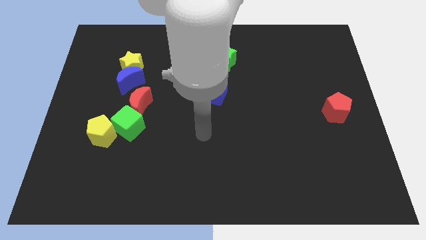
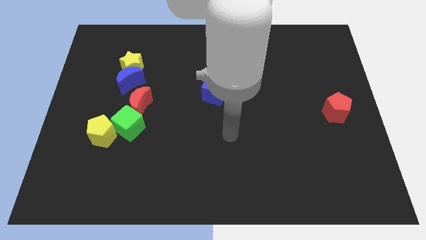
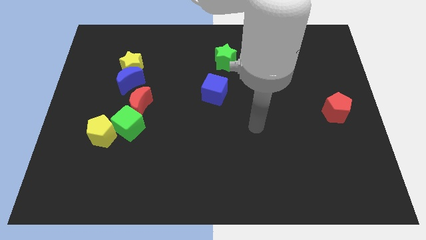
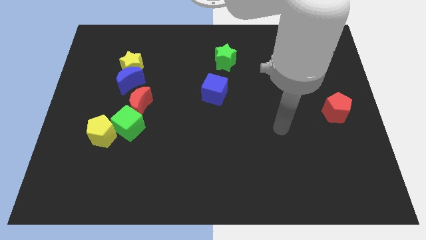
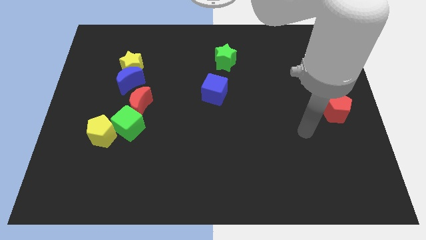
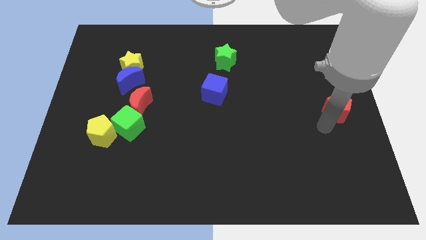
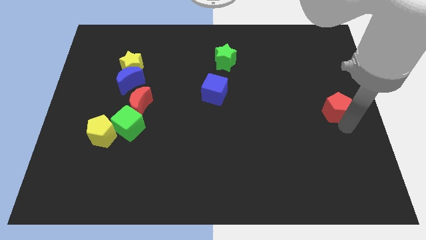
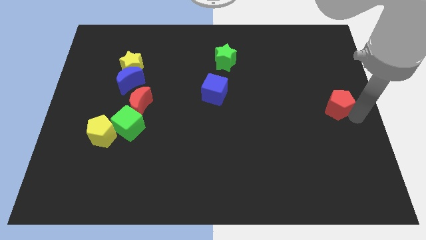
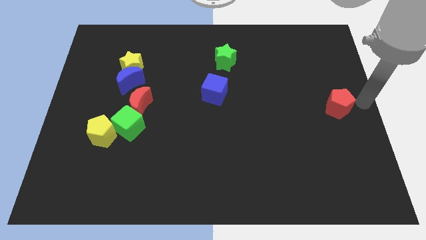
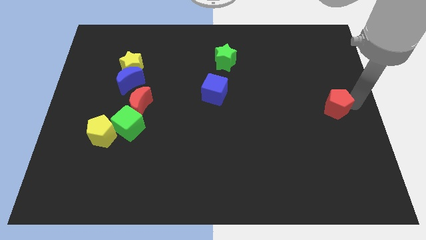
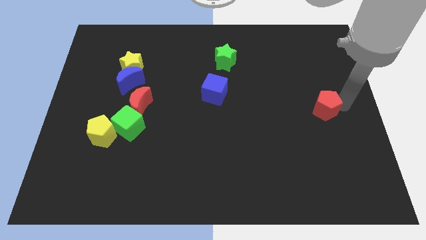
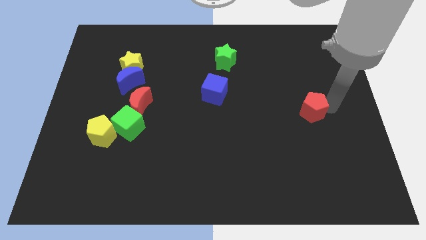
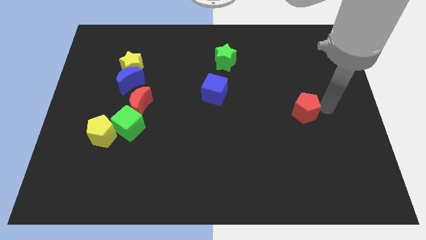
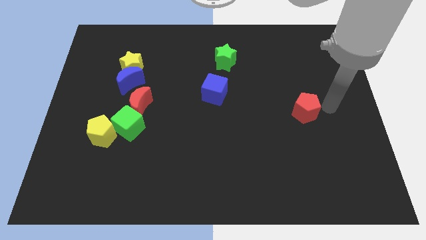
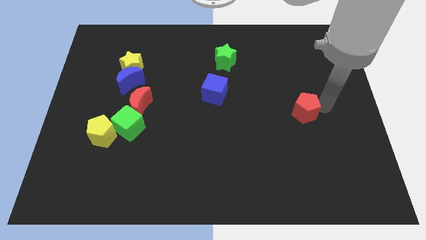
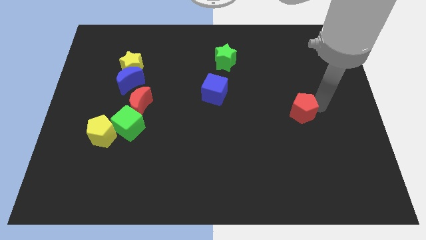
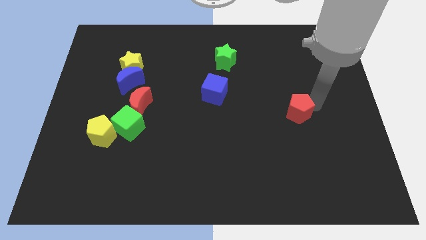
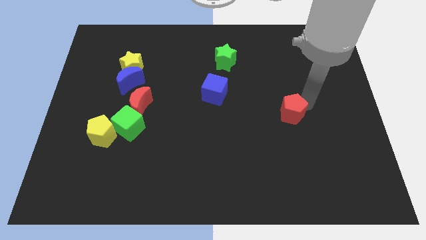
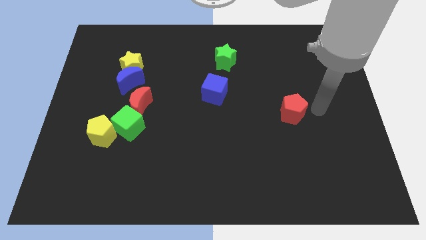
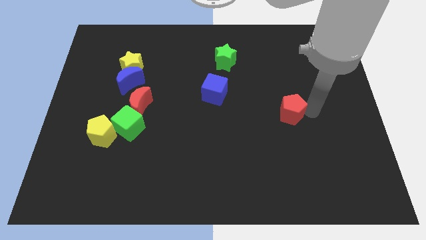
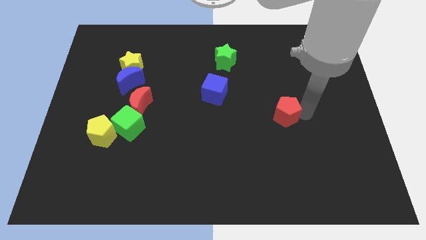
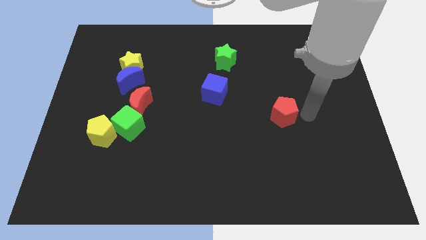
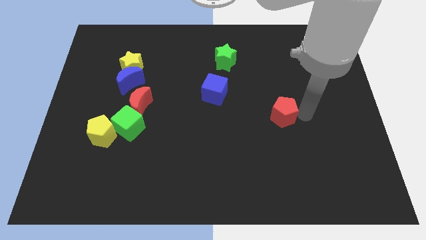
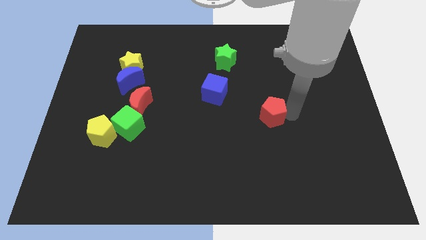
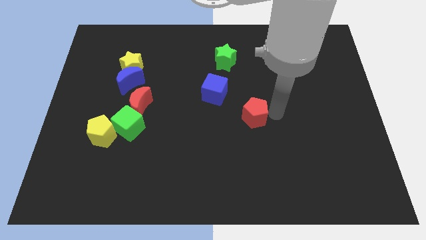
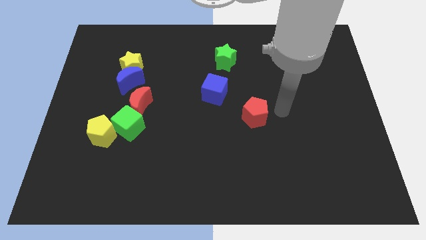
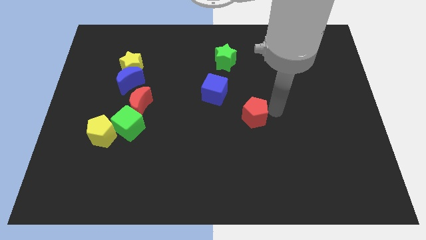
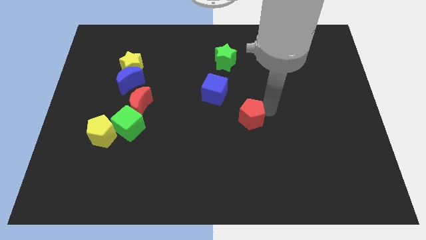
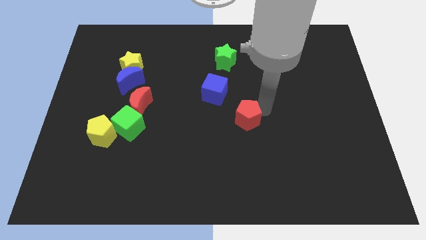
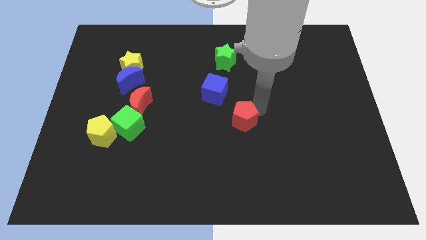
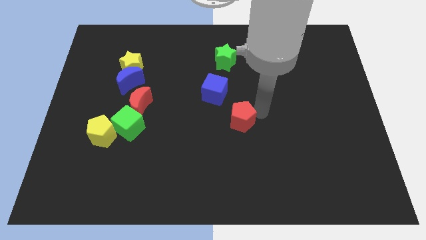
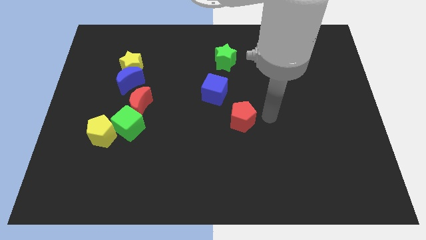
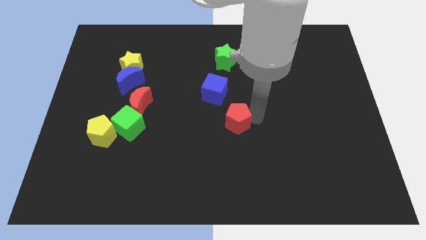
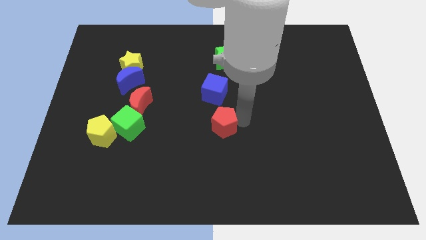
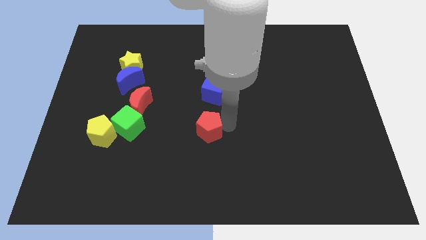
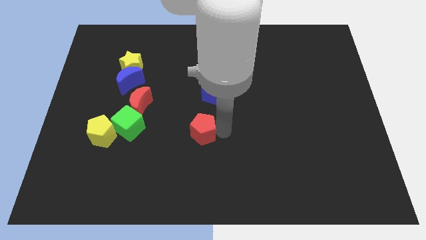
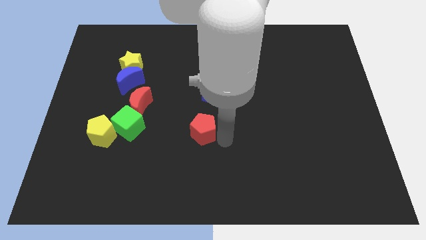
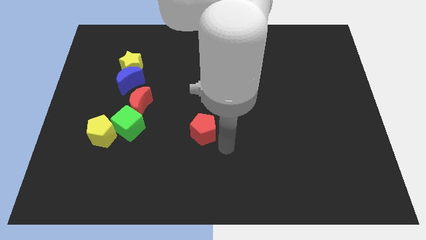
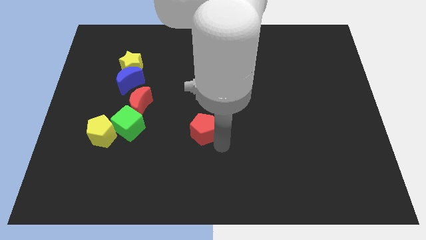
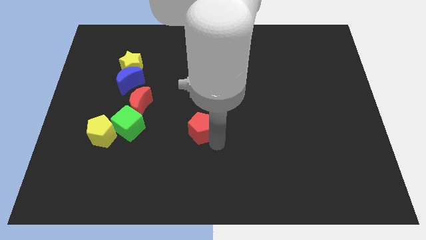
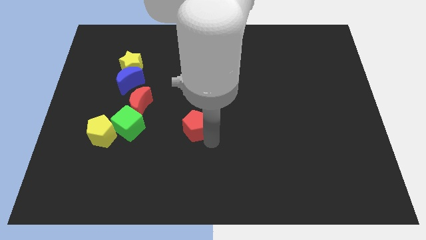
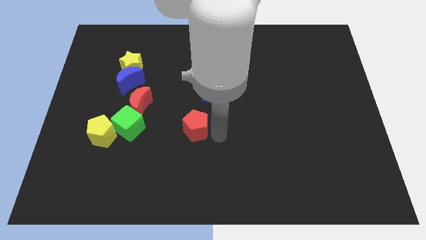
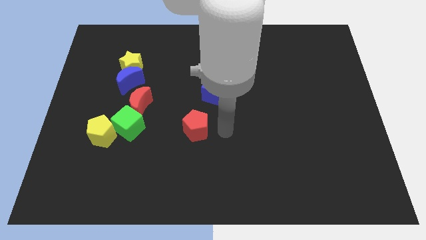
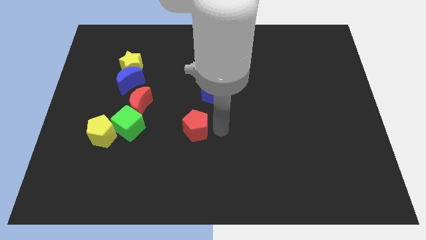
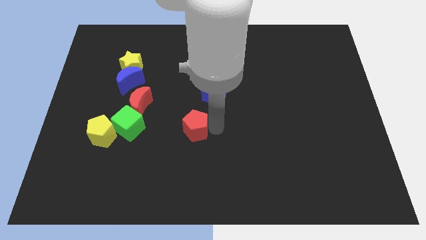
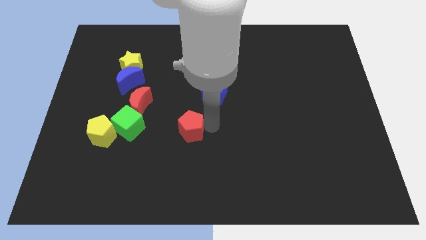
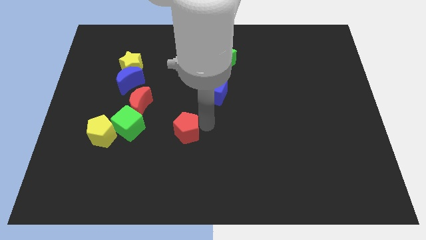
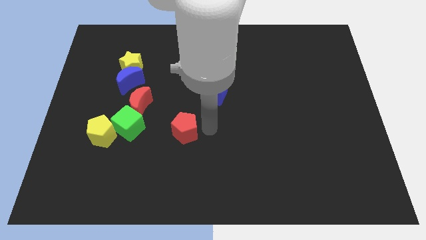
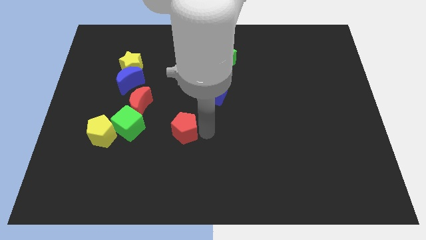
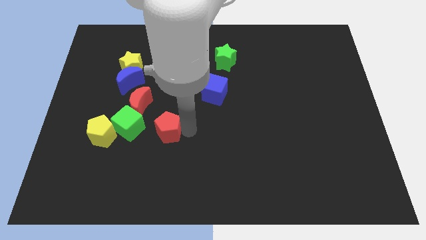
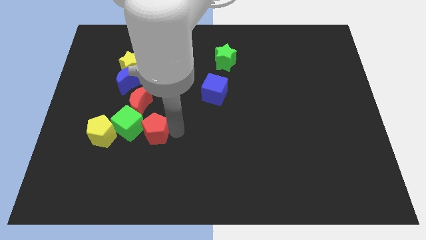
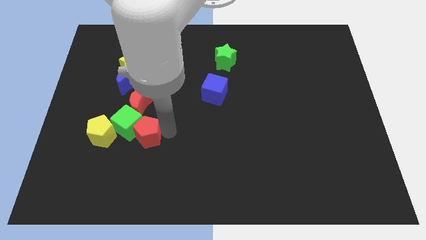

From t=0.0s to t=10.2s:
move the red pentagon next to the green cube

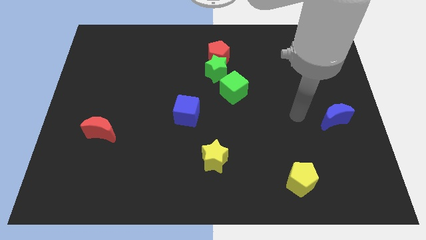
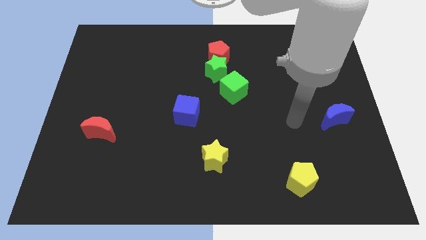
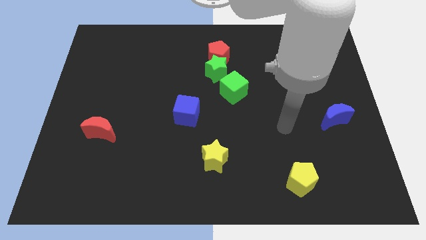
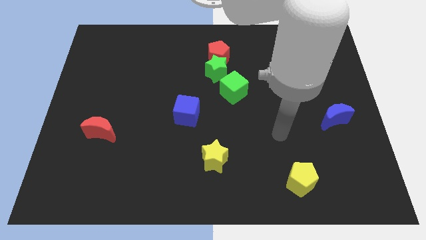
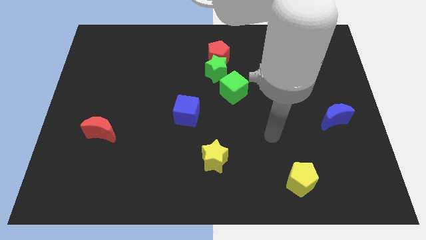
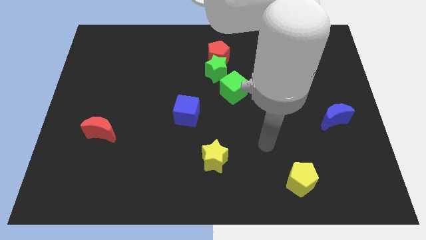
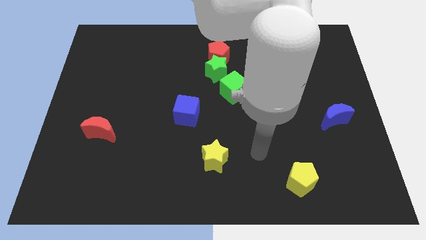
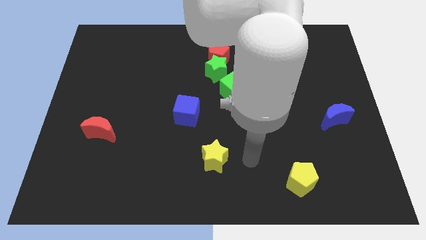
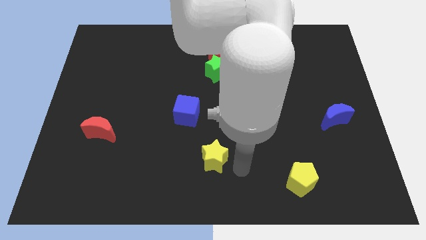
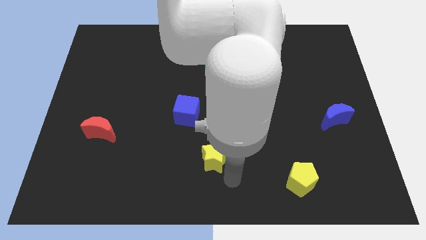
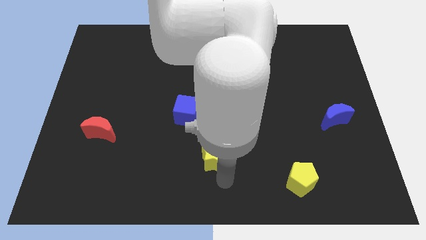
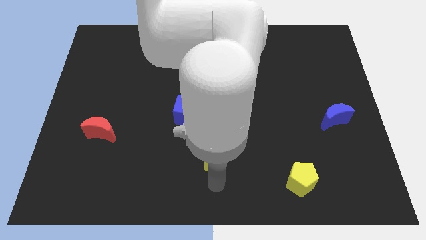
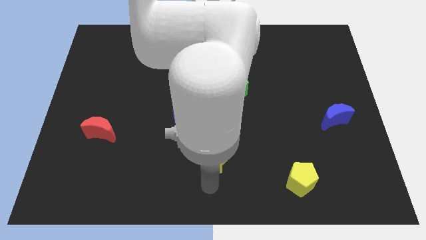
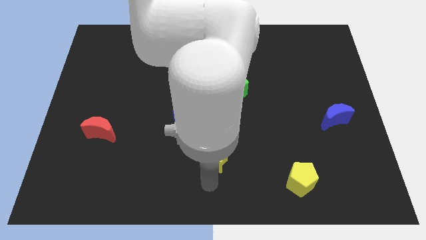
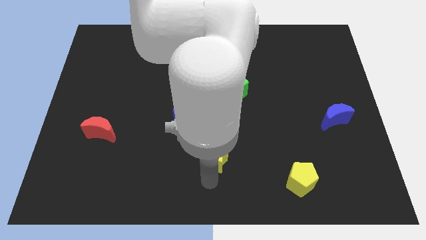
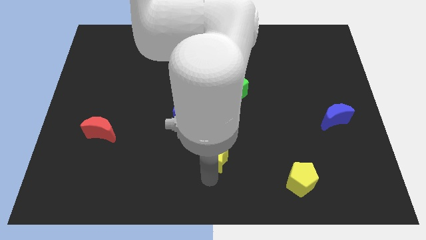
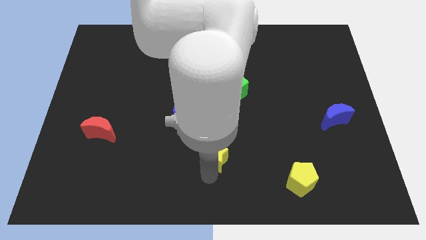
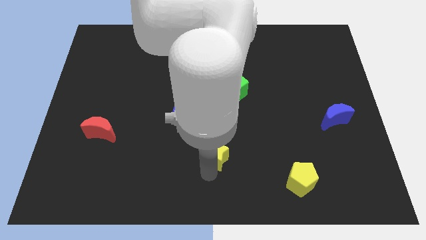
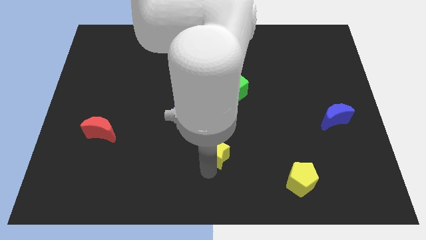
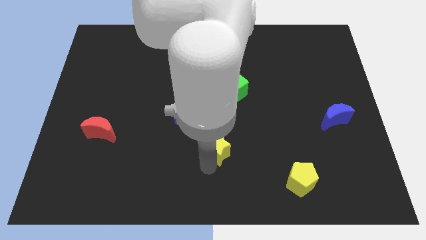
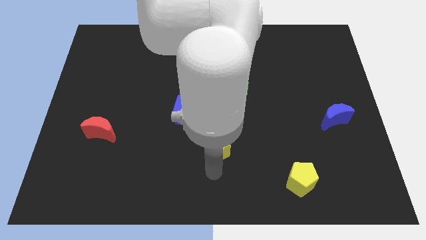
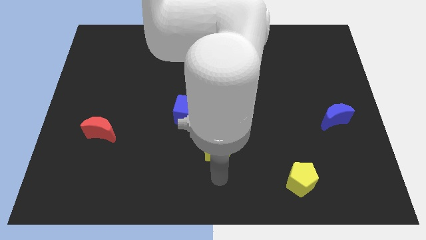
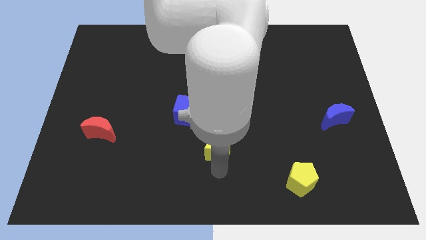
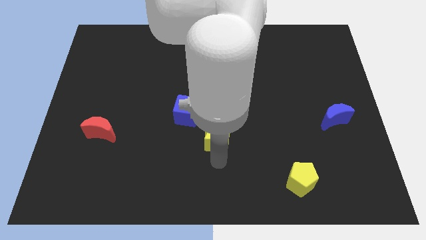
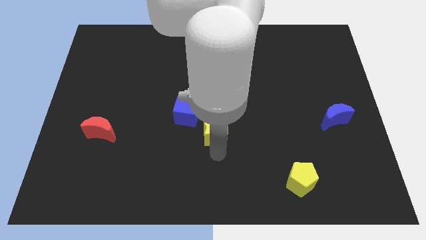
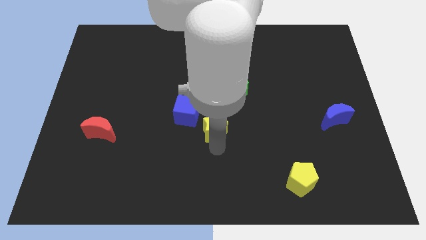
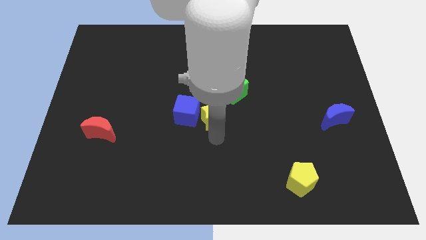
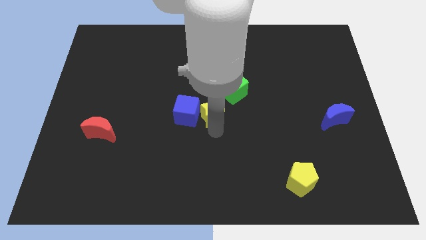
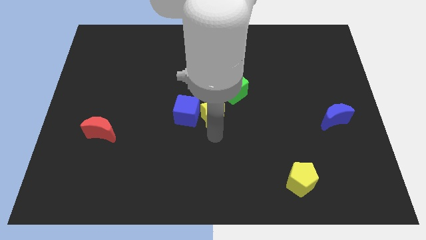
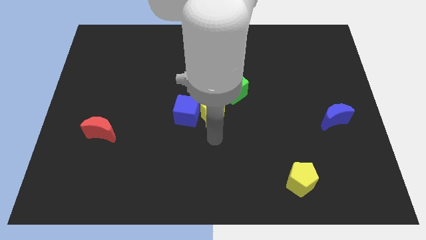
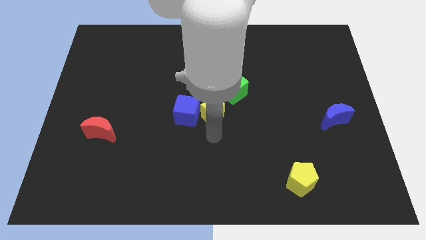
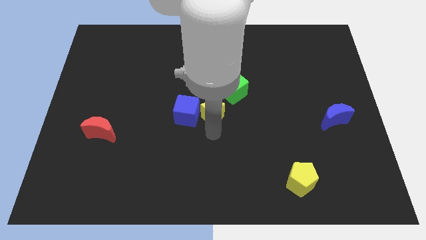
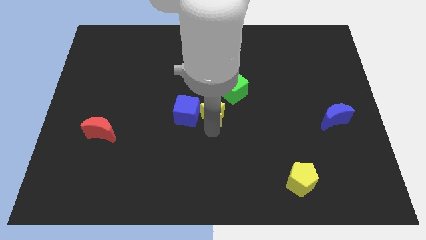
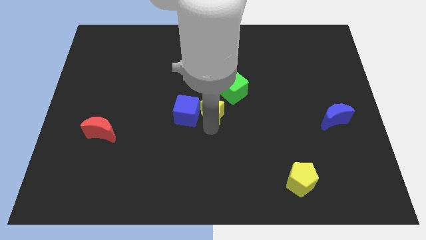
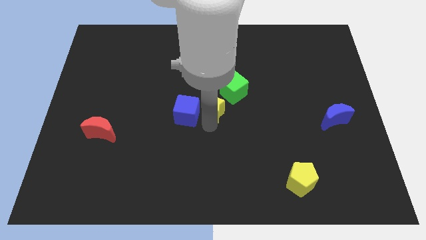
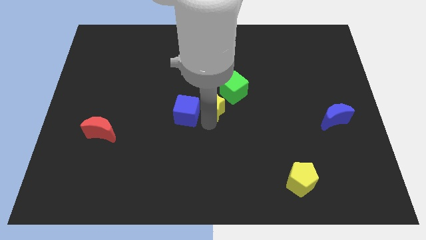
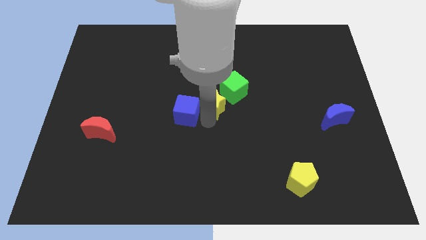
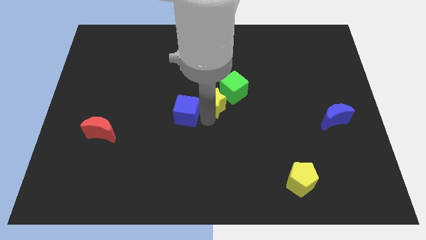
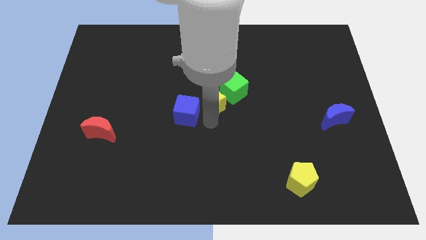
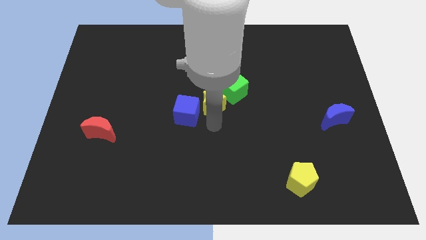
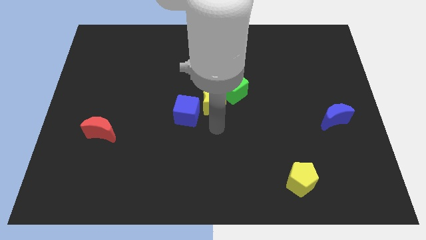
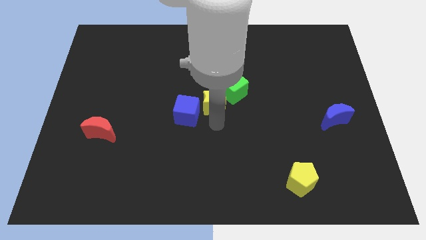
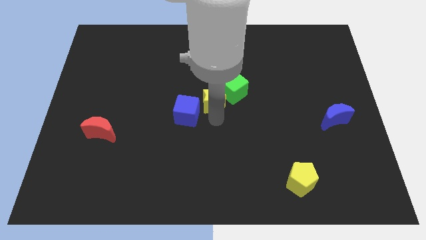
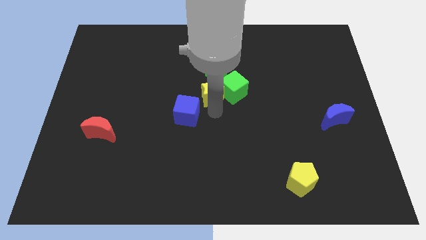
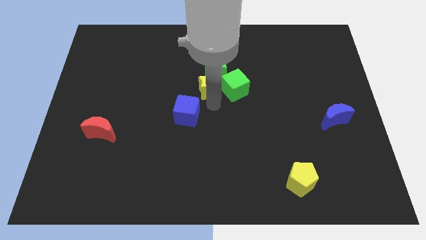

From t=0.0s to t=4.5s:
slide the yellow star close to the green star
